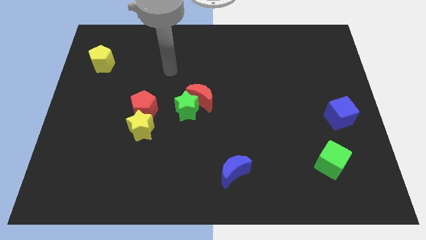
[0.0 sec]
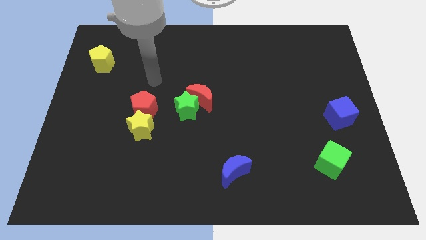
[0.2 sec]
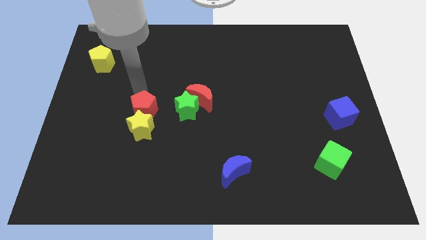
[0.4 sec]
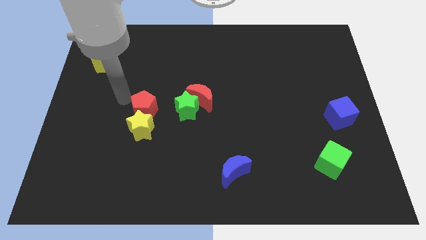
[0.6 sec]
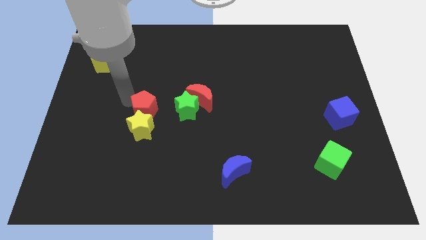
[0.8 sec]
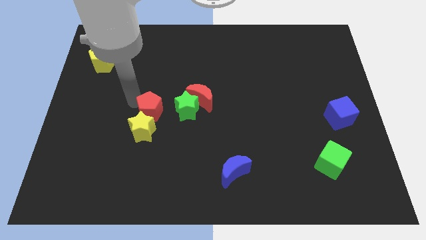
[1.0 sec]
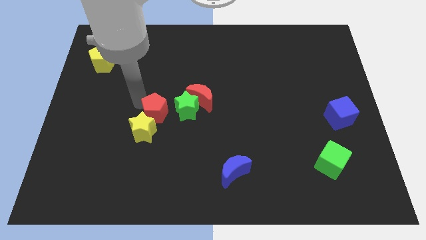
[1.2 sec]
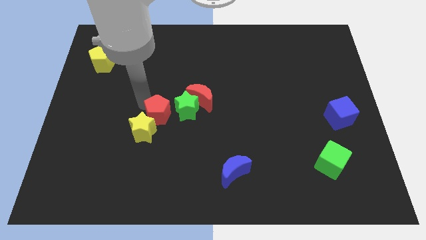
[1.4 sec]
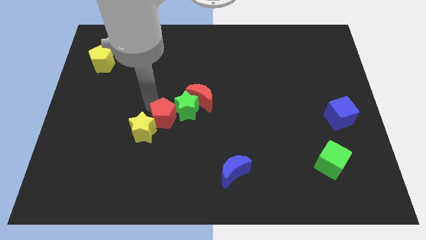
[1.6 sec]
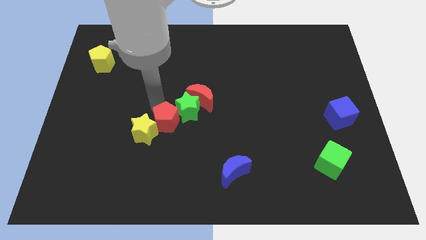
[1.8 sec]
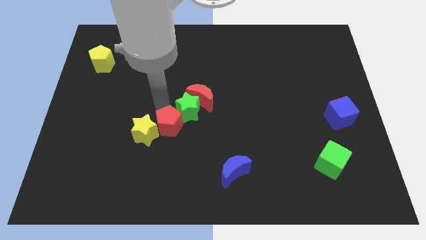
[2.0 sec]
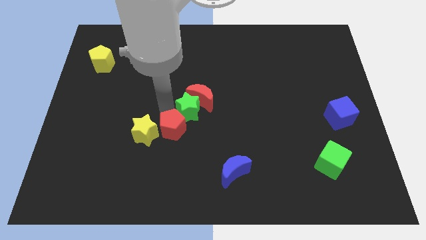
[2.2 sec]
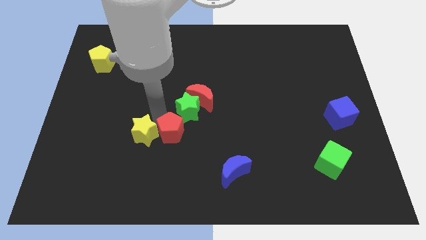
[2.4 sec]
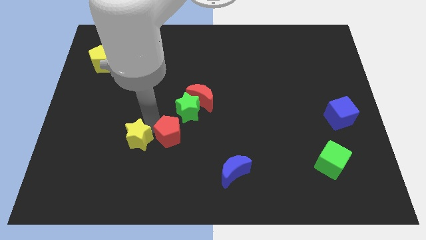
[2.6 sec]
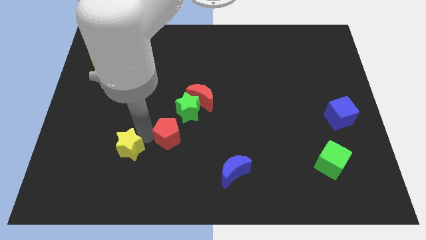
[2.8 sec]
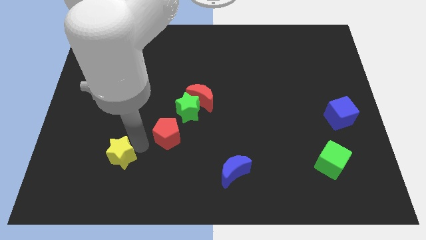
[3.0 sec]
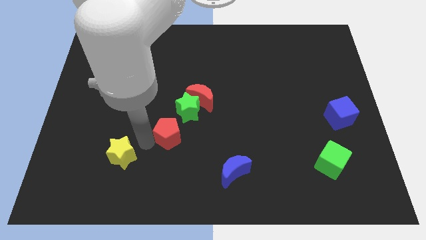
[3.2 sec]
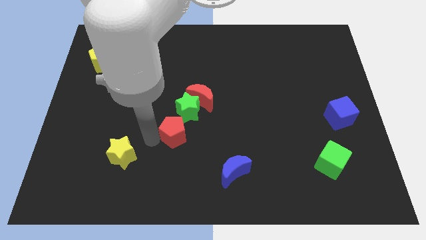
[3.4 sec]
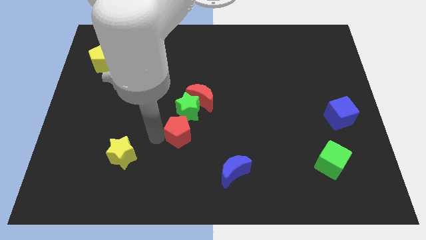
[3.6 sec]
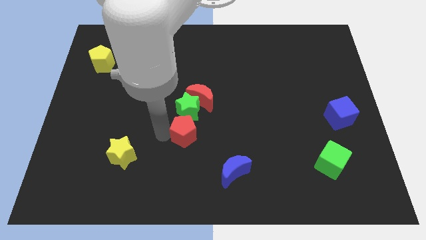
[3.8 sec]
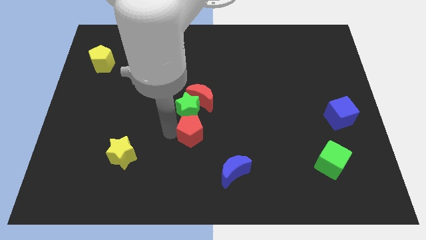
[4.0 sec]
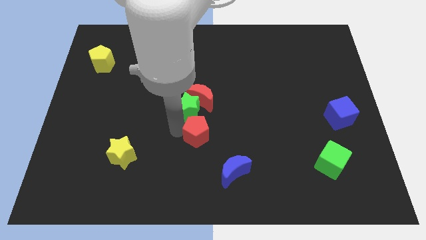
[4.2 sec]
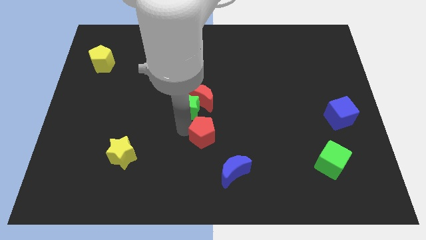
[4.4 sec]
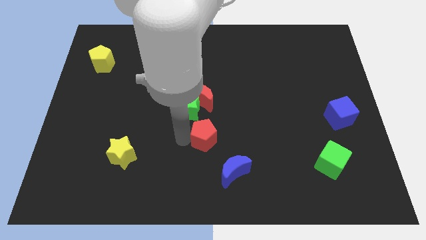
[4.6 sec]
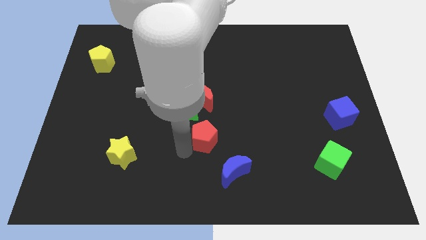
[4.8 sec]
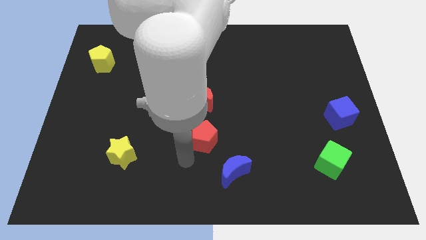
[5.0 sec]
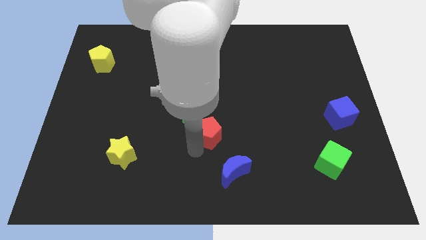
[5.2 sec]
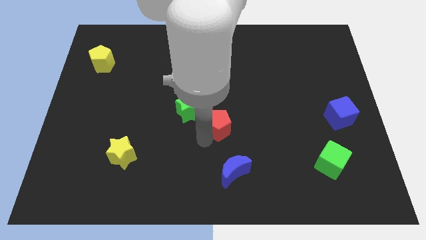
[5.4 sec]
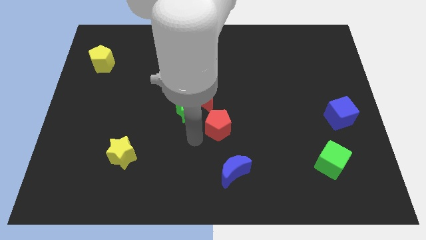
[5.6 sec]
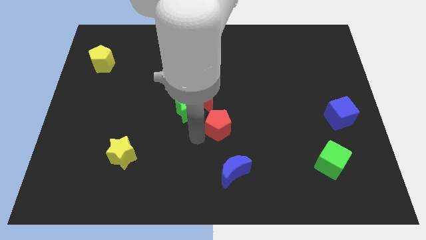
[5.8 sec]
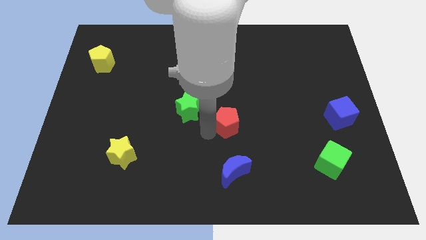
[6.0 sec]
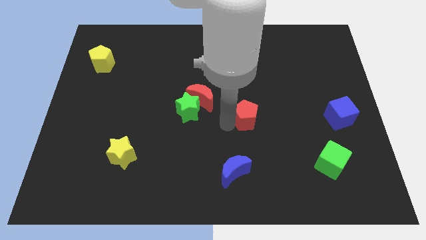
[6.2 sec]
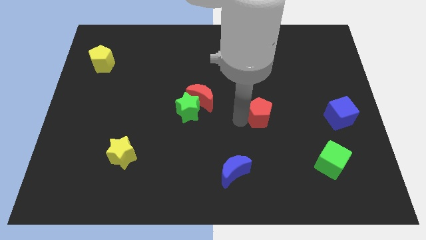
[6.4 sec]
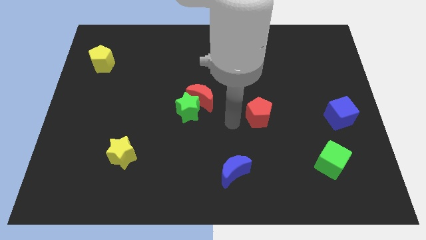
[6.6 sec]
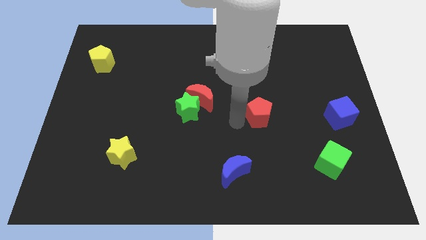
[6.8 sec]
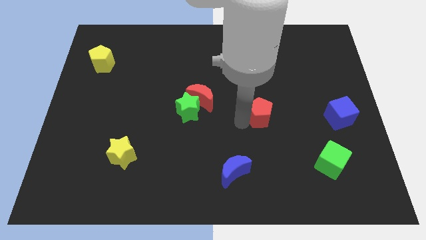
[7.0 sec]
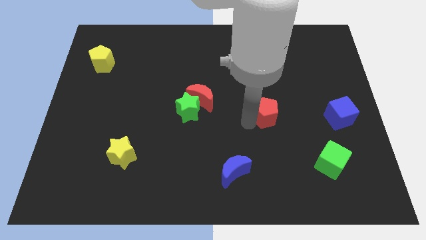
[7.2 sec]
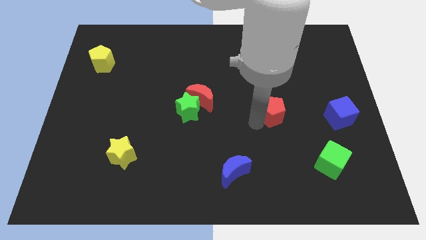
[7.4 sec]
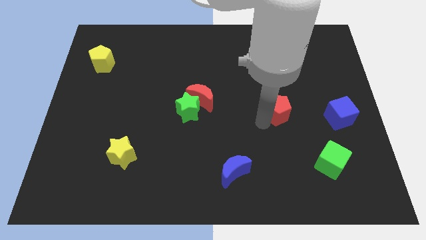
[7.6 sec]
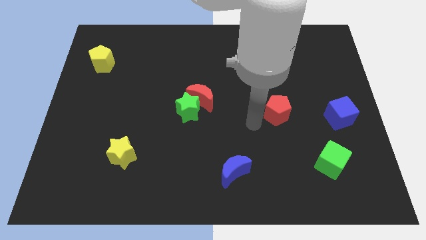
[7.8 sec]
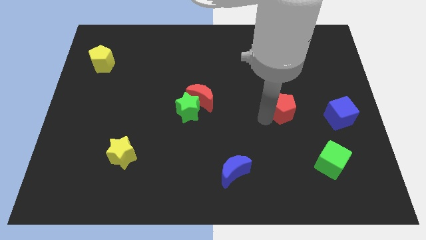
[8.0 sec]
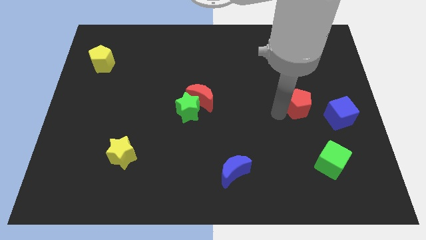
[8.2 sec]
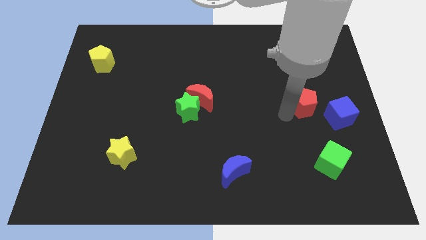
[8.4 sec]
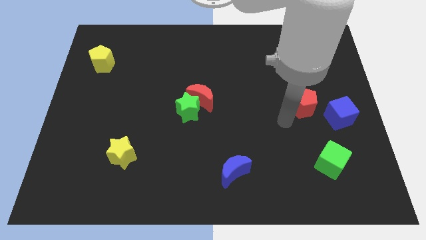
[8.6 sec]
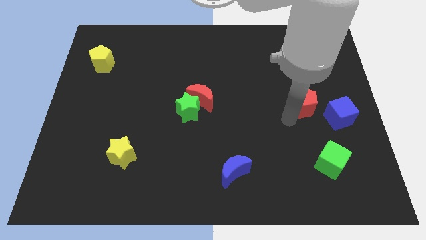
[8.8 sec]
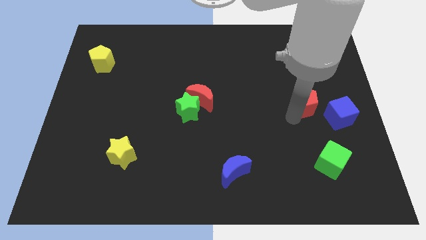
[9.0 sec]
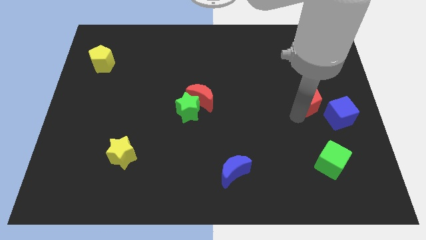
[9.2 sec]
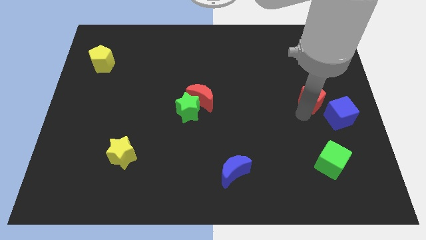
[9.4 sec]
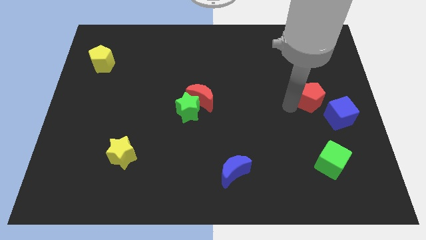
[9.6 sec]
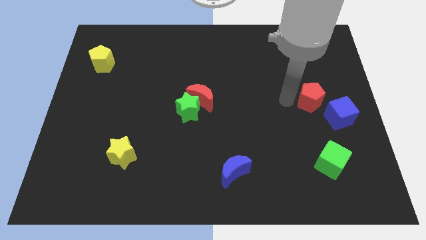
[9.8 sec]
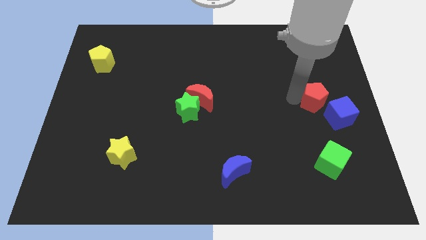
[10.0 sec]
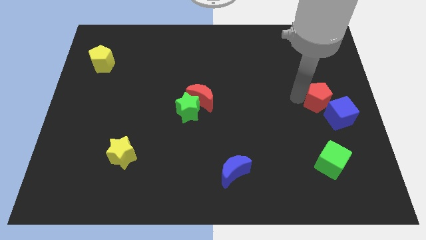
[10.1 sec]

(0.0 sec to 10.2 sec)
slide the red pentagon to the center right

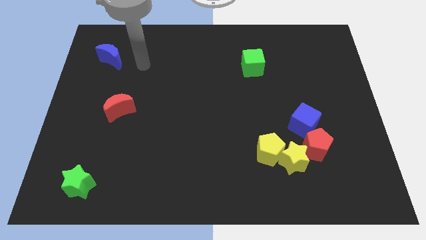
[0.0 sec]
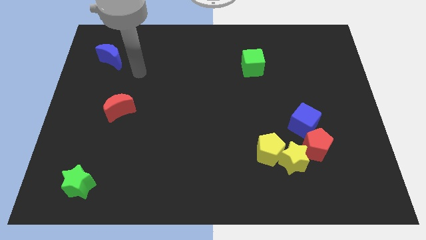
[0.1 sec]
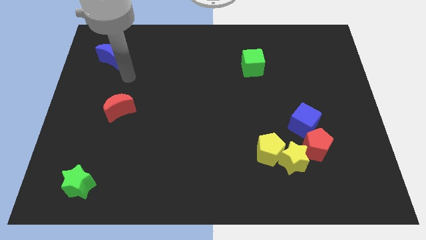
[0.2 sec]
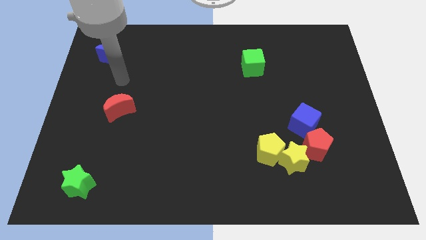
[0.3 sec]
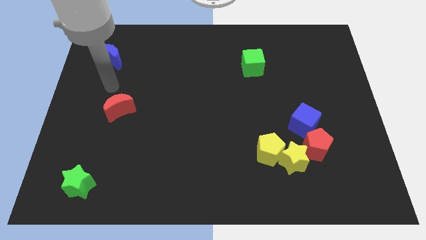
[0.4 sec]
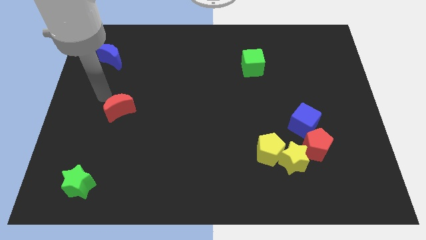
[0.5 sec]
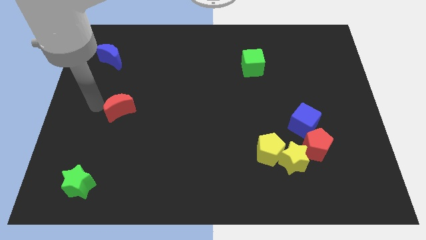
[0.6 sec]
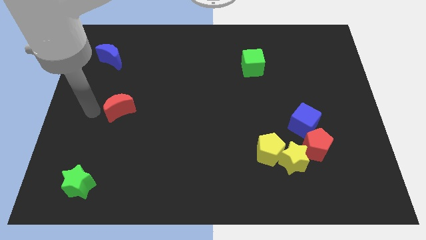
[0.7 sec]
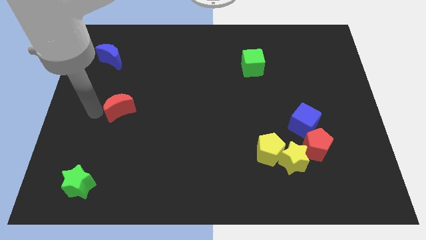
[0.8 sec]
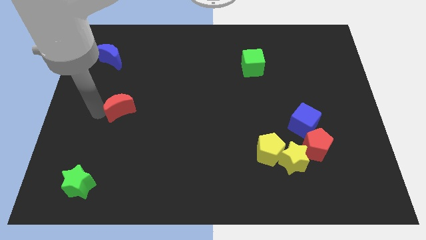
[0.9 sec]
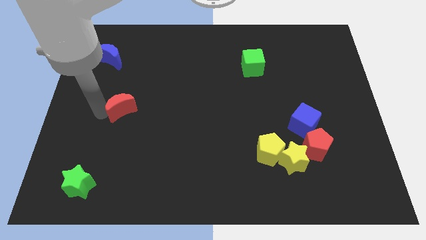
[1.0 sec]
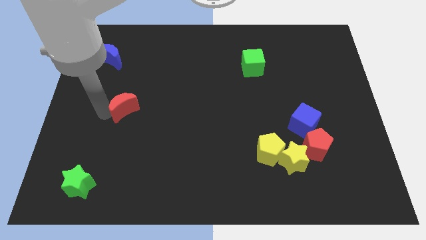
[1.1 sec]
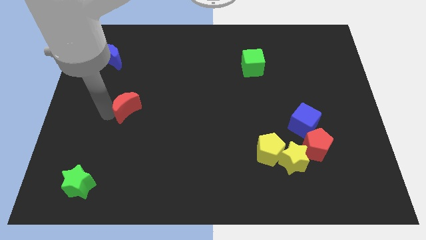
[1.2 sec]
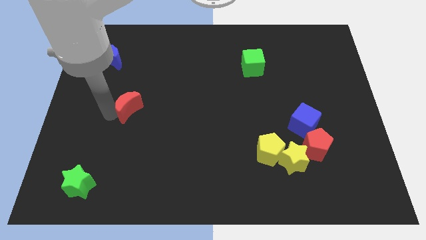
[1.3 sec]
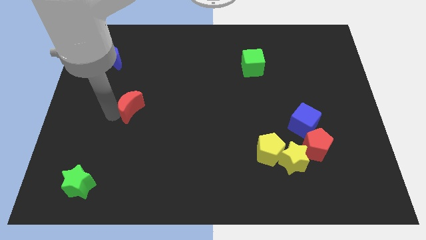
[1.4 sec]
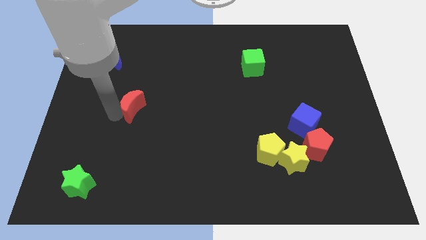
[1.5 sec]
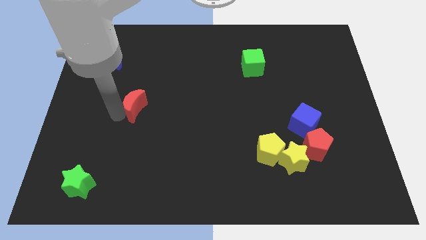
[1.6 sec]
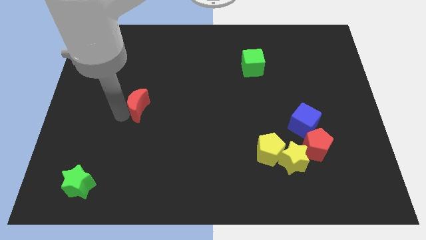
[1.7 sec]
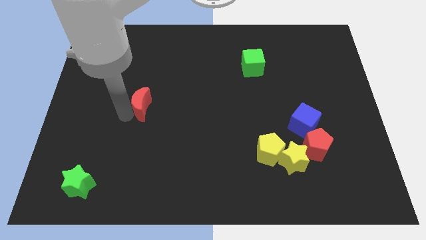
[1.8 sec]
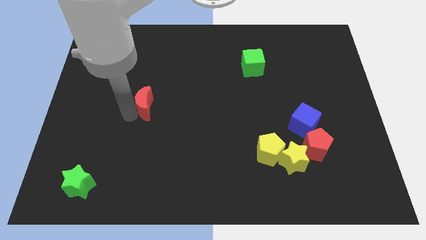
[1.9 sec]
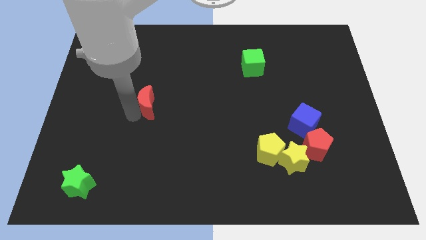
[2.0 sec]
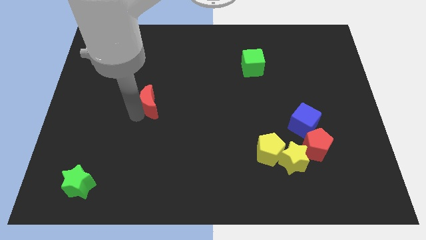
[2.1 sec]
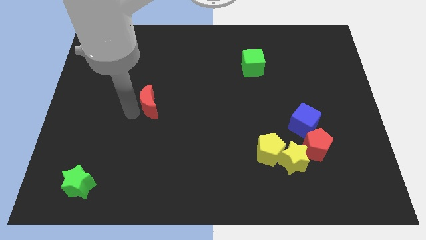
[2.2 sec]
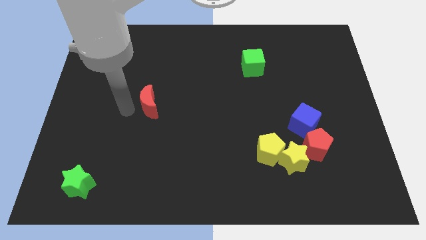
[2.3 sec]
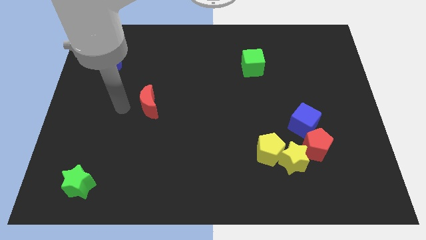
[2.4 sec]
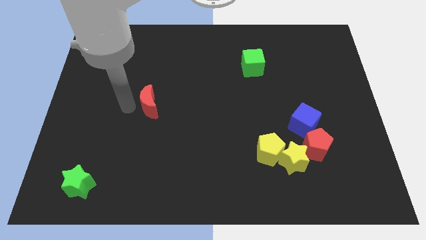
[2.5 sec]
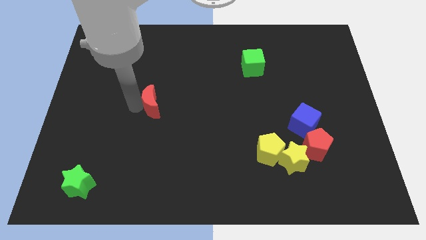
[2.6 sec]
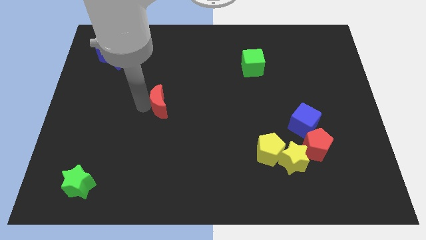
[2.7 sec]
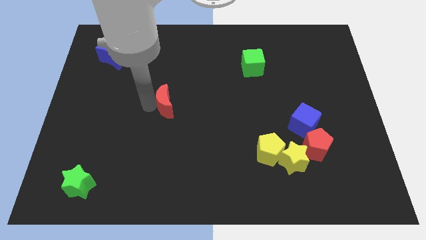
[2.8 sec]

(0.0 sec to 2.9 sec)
slide the red moon to the middle
